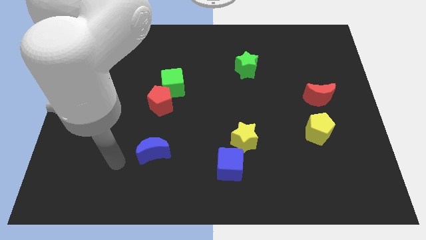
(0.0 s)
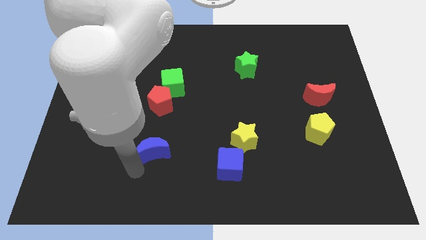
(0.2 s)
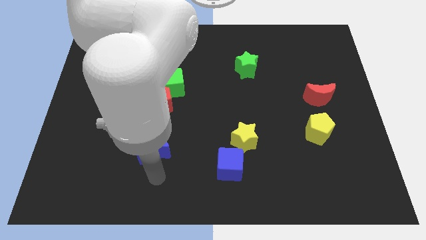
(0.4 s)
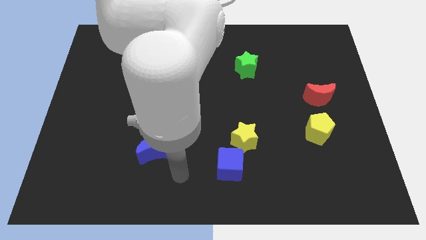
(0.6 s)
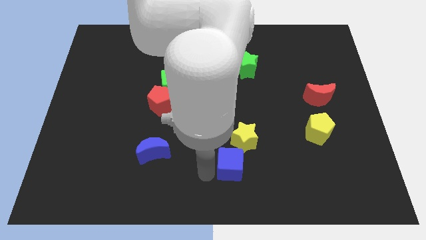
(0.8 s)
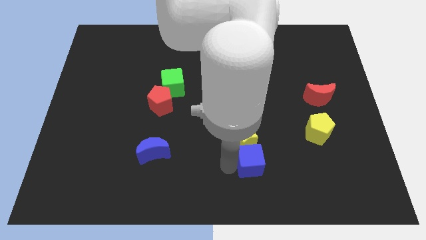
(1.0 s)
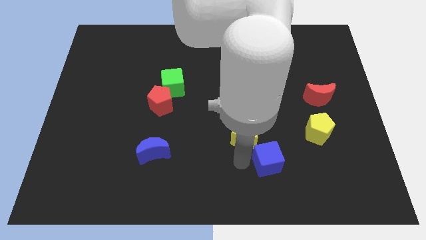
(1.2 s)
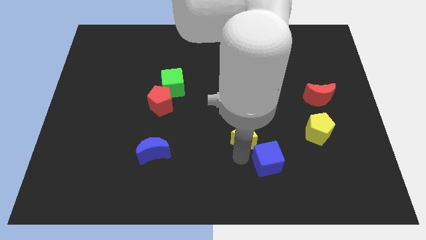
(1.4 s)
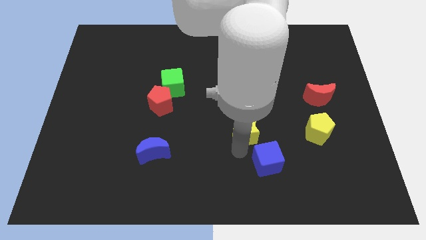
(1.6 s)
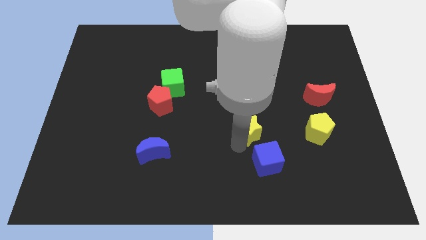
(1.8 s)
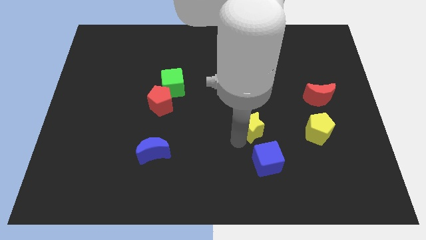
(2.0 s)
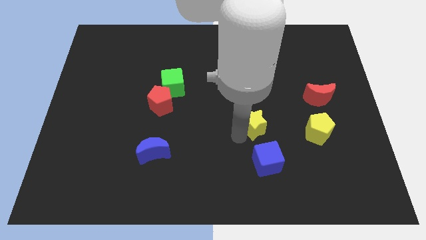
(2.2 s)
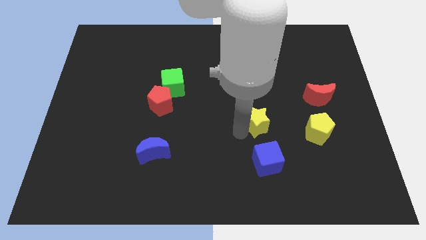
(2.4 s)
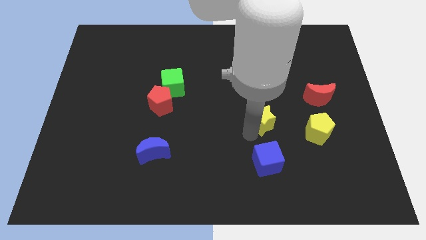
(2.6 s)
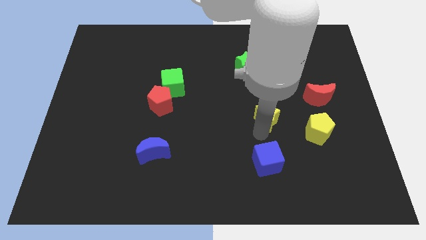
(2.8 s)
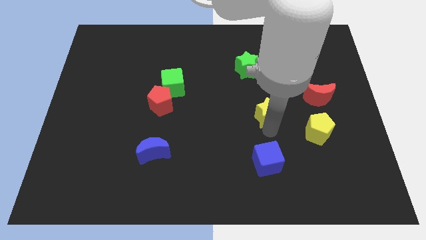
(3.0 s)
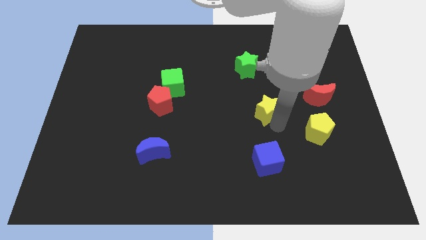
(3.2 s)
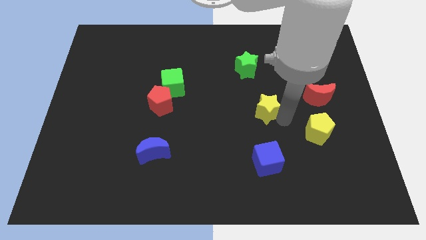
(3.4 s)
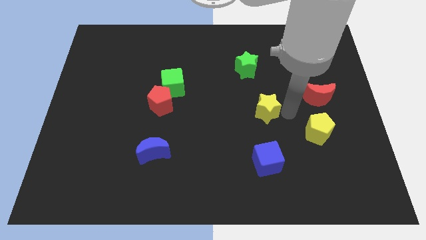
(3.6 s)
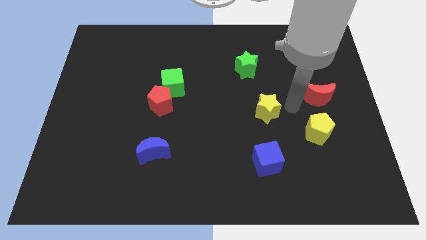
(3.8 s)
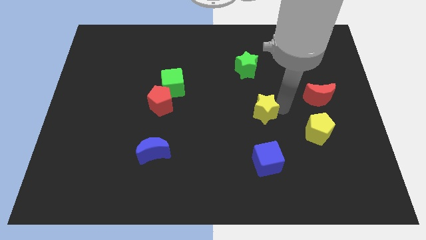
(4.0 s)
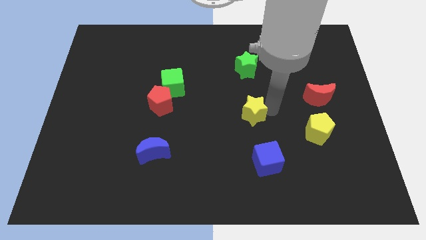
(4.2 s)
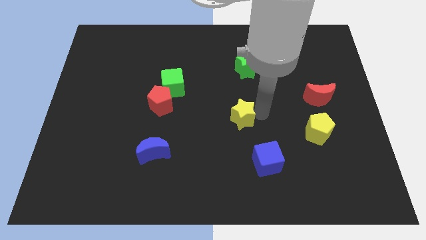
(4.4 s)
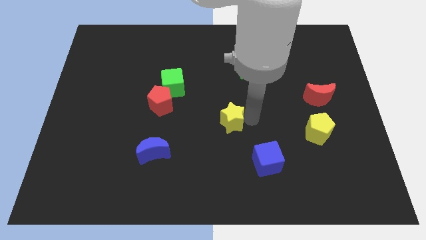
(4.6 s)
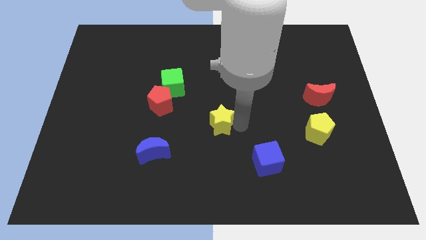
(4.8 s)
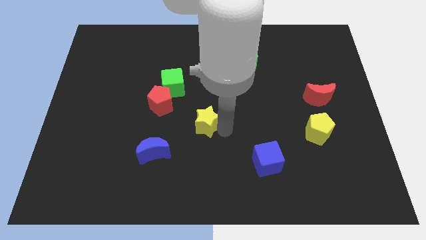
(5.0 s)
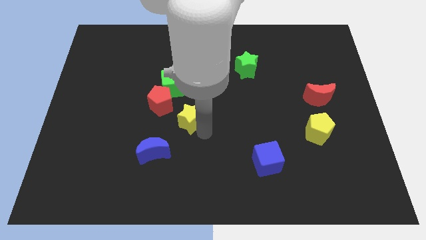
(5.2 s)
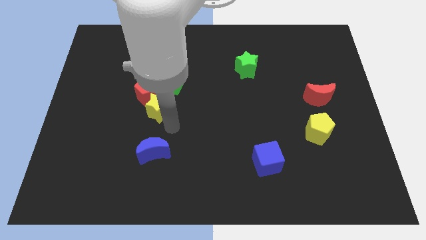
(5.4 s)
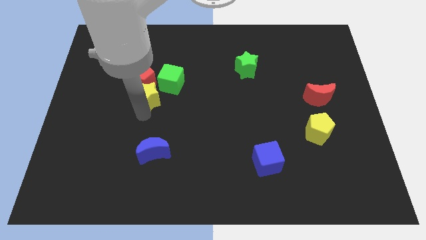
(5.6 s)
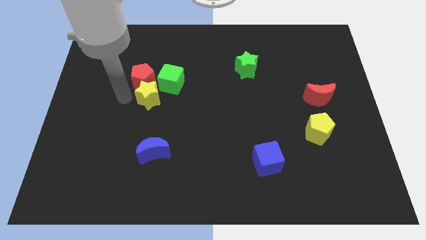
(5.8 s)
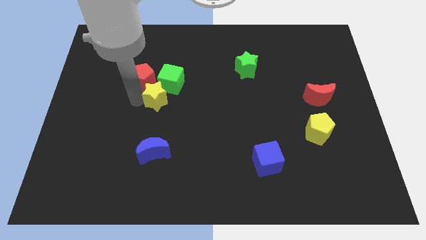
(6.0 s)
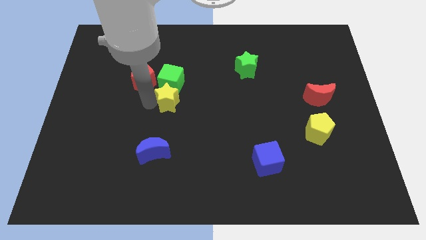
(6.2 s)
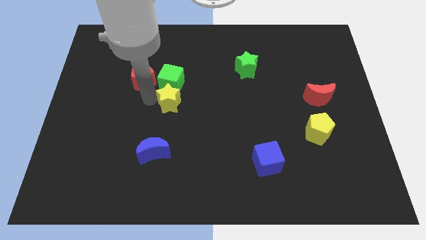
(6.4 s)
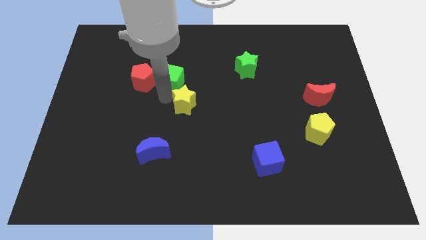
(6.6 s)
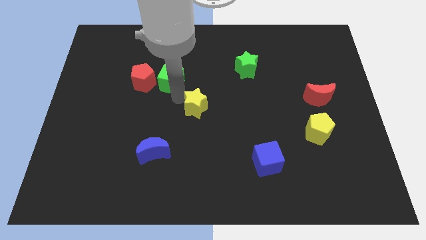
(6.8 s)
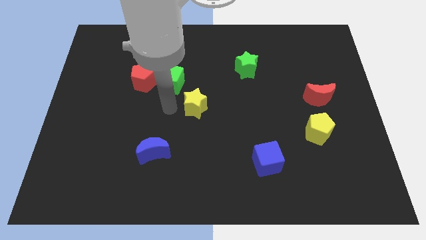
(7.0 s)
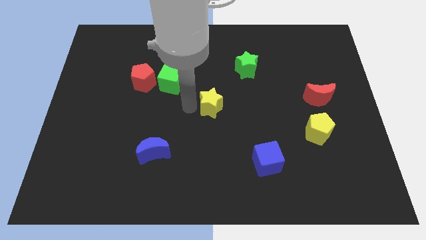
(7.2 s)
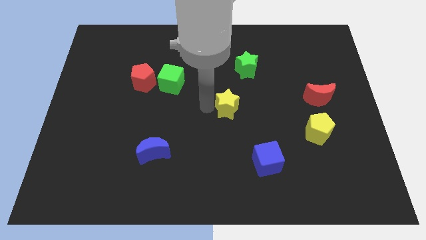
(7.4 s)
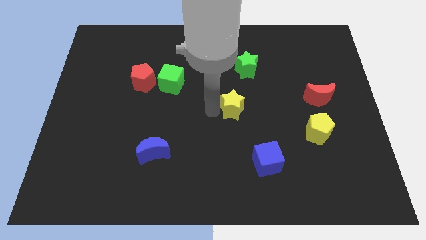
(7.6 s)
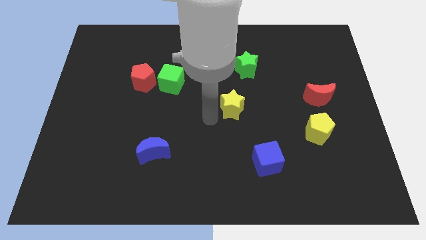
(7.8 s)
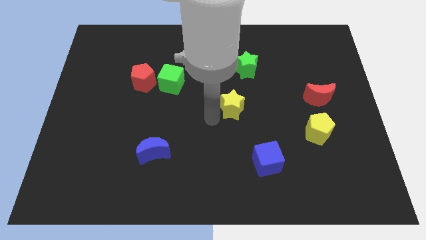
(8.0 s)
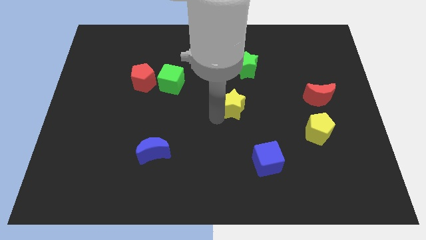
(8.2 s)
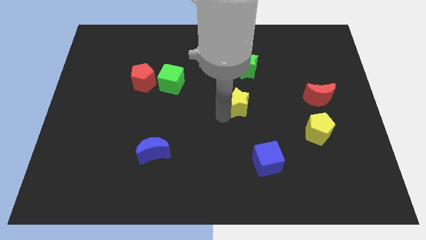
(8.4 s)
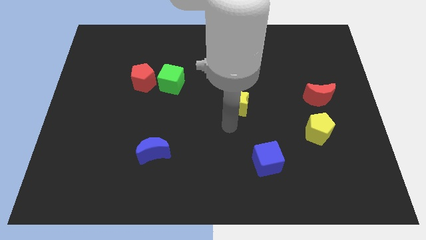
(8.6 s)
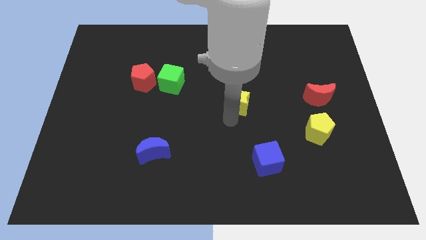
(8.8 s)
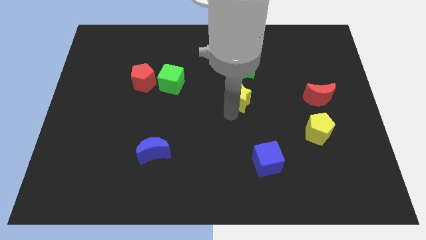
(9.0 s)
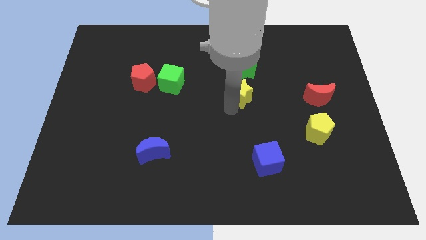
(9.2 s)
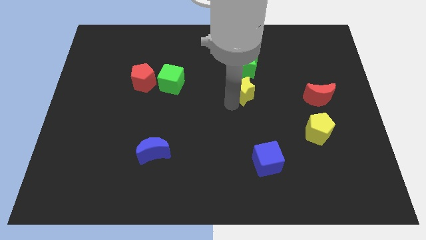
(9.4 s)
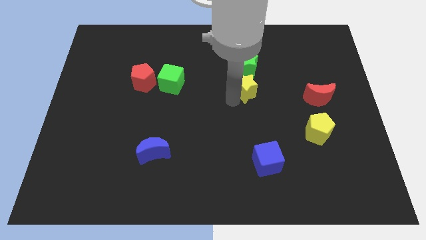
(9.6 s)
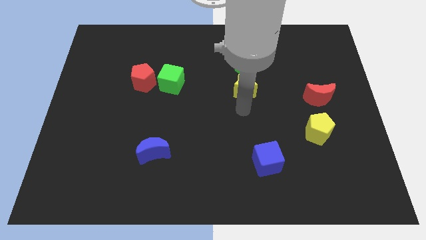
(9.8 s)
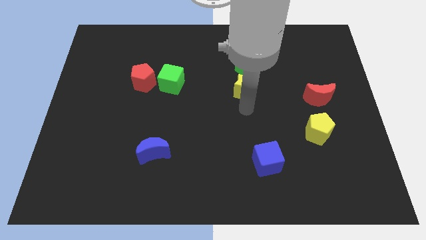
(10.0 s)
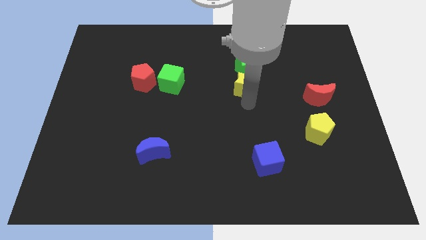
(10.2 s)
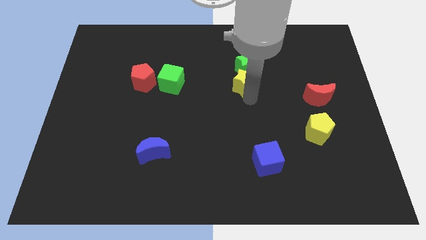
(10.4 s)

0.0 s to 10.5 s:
push the yellow star to the green star

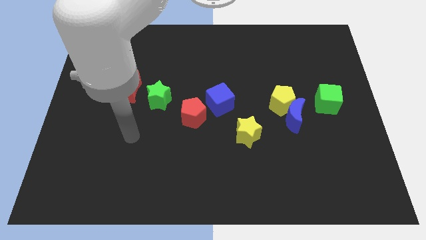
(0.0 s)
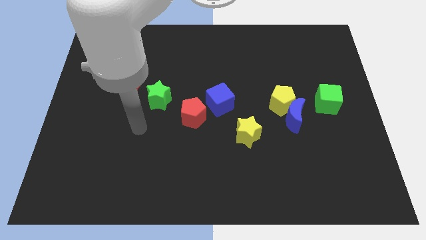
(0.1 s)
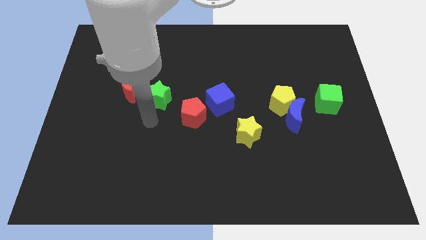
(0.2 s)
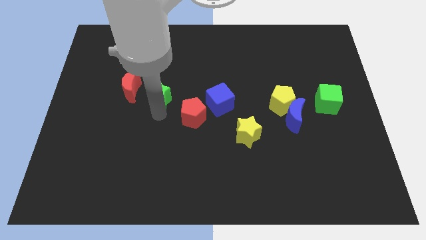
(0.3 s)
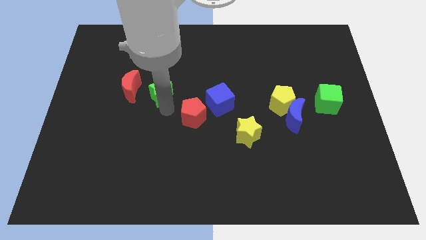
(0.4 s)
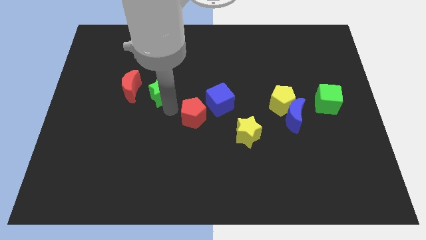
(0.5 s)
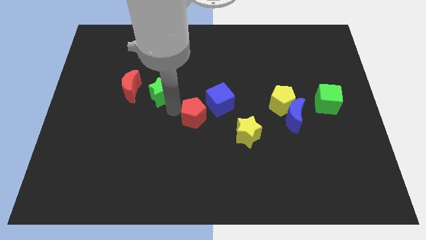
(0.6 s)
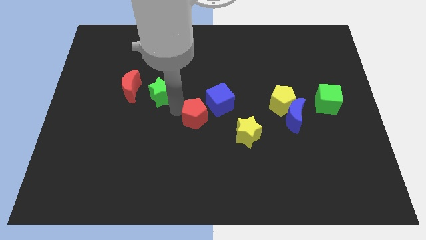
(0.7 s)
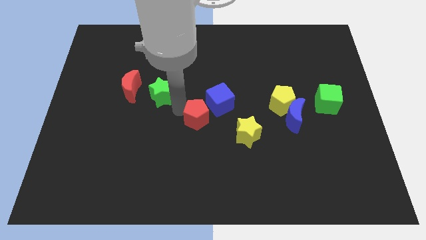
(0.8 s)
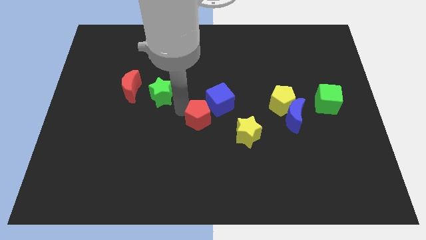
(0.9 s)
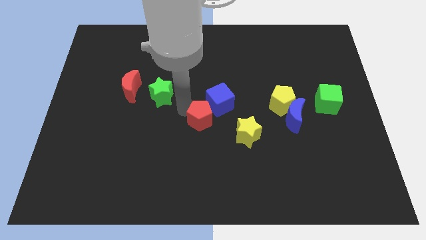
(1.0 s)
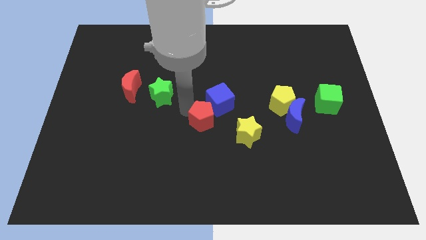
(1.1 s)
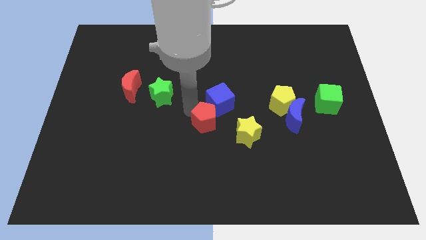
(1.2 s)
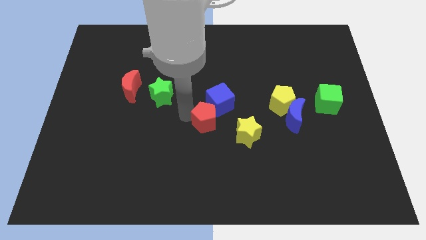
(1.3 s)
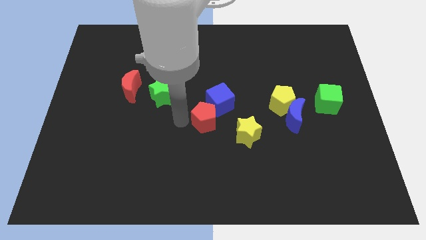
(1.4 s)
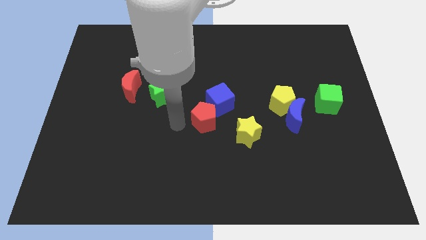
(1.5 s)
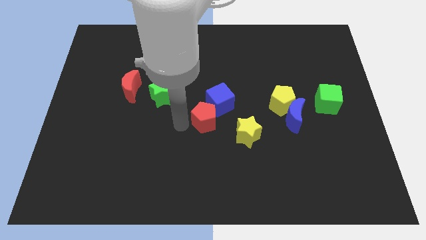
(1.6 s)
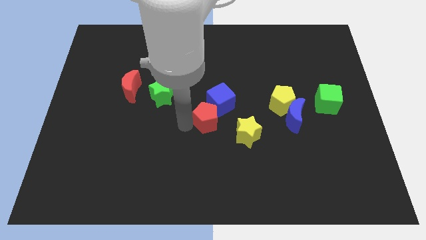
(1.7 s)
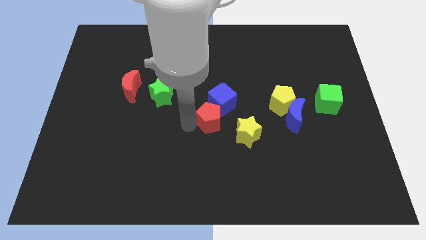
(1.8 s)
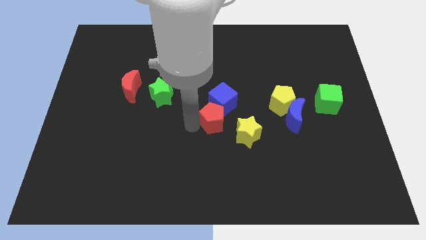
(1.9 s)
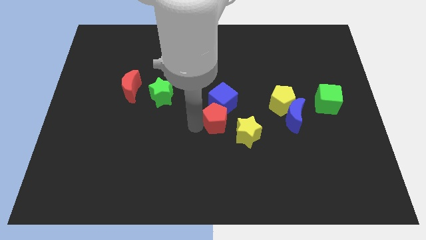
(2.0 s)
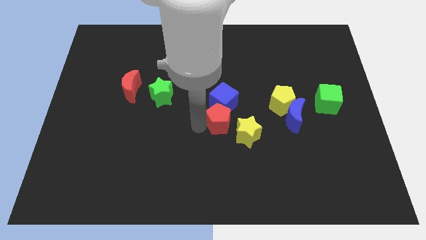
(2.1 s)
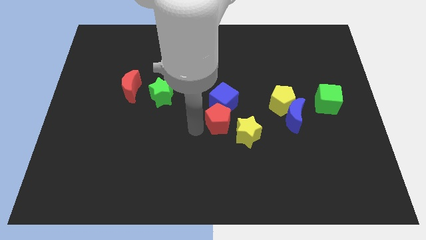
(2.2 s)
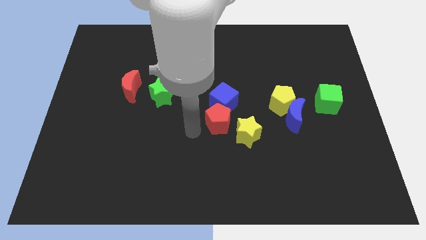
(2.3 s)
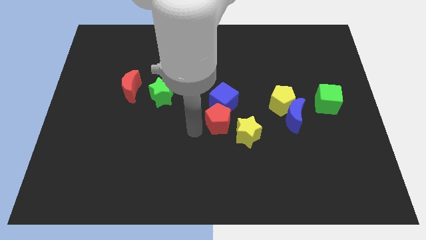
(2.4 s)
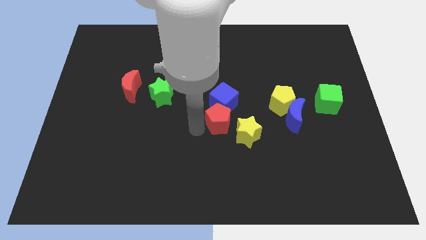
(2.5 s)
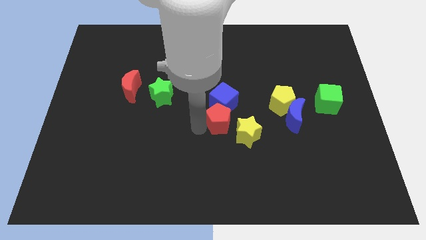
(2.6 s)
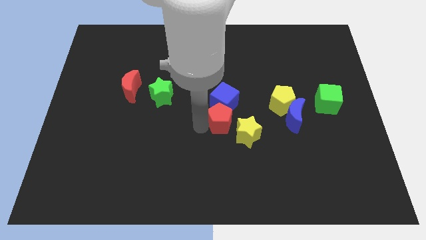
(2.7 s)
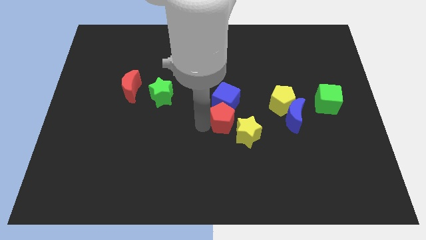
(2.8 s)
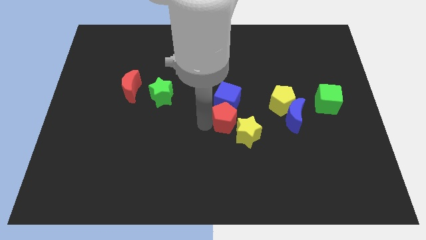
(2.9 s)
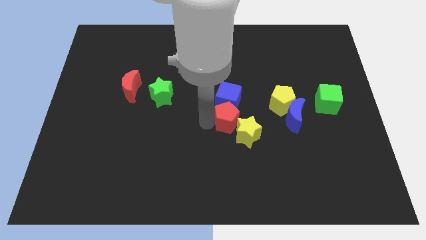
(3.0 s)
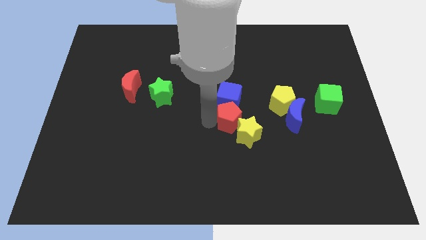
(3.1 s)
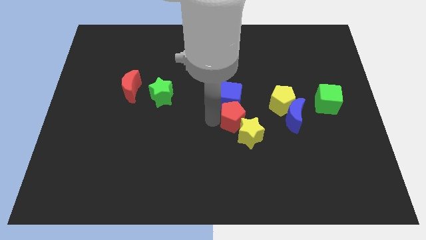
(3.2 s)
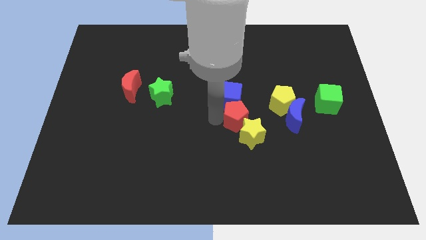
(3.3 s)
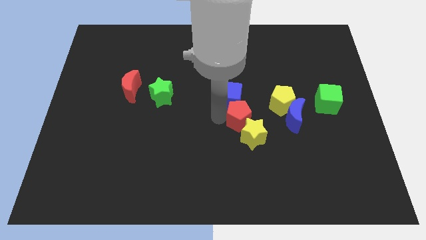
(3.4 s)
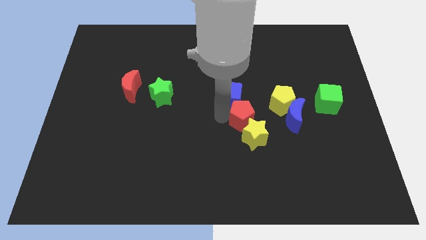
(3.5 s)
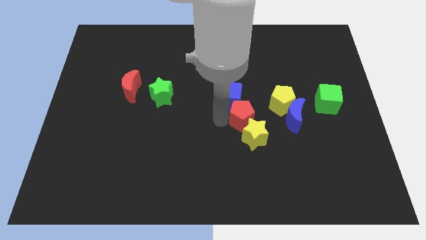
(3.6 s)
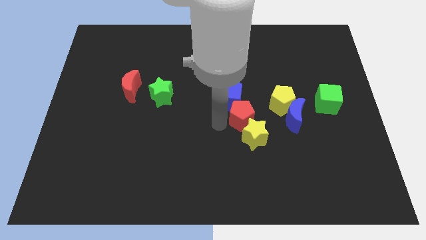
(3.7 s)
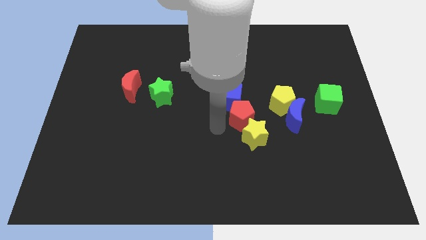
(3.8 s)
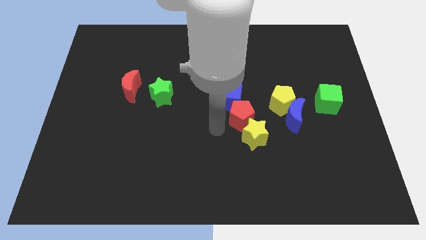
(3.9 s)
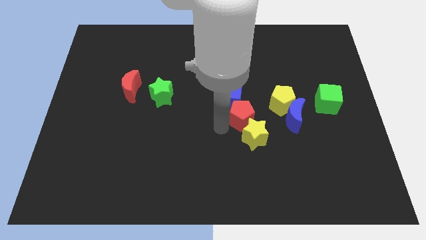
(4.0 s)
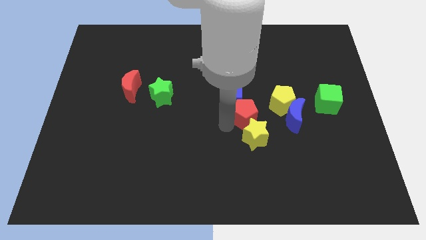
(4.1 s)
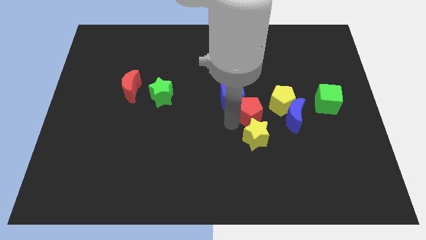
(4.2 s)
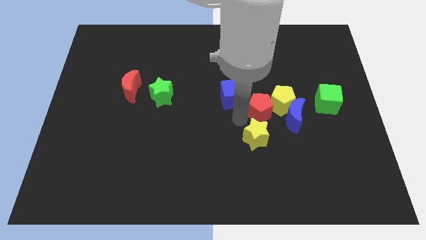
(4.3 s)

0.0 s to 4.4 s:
put the red pentagon next to the yellow pentagon
